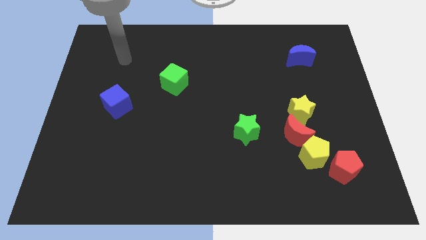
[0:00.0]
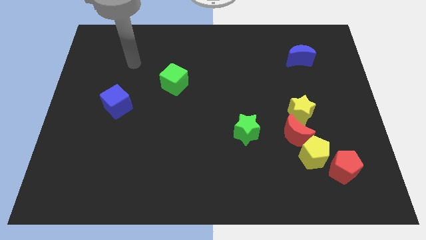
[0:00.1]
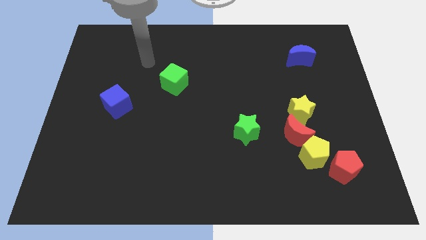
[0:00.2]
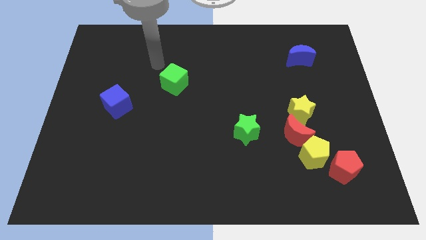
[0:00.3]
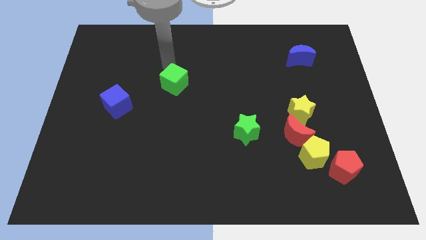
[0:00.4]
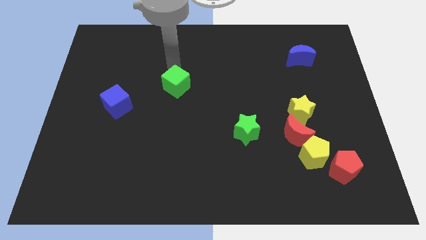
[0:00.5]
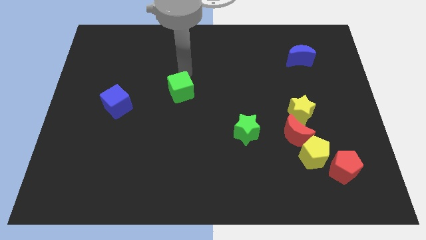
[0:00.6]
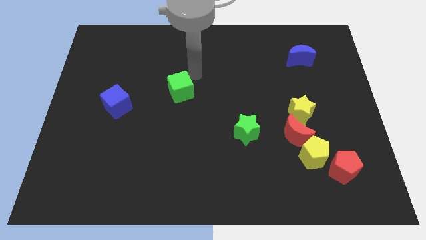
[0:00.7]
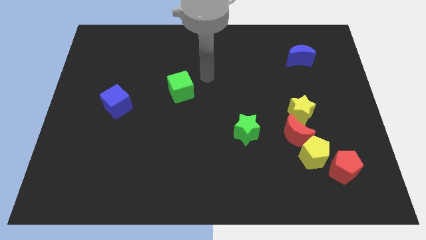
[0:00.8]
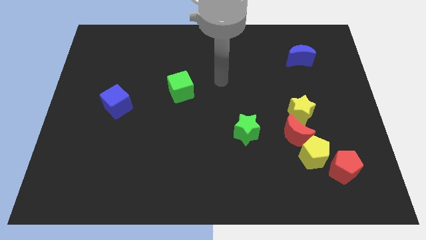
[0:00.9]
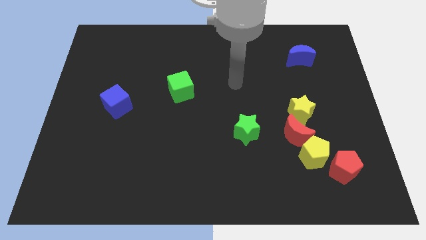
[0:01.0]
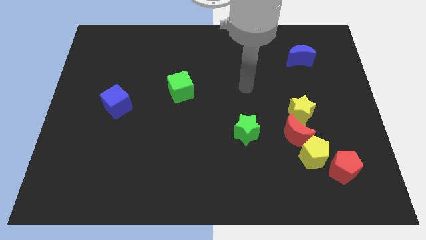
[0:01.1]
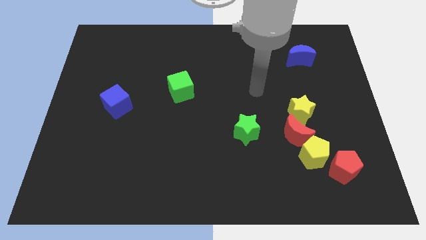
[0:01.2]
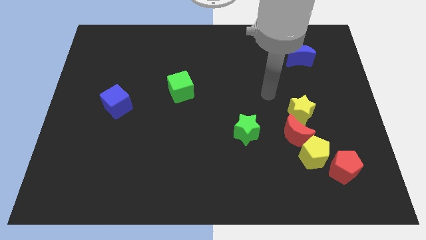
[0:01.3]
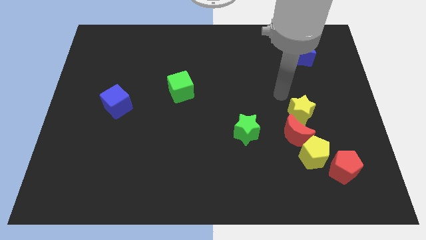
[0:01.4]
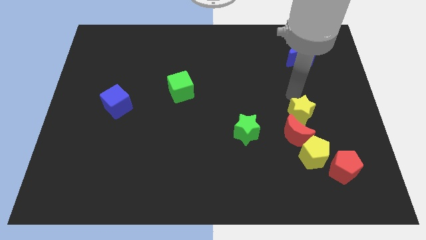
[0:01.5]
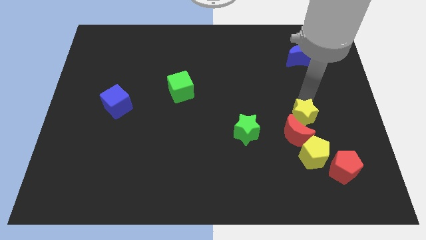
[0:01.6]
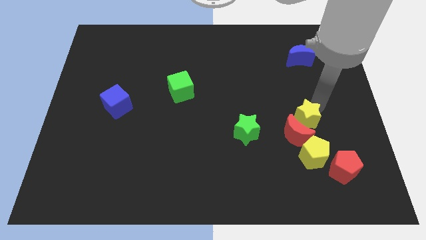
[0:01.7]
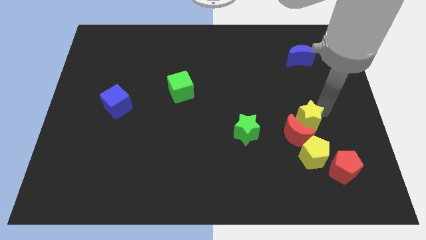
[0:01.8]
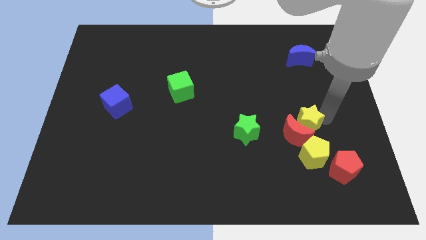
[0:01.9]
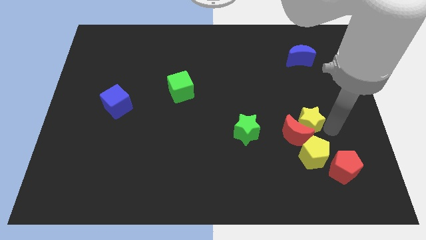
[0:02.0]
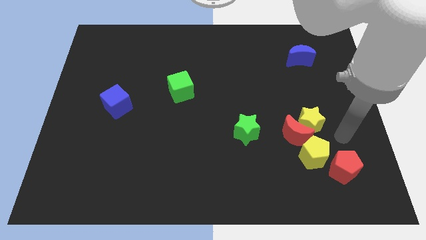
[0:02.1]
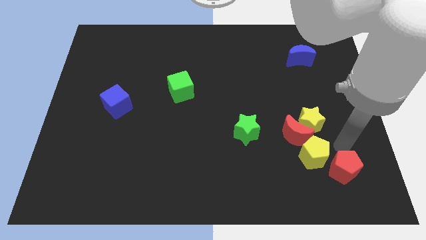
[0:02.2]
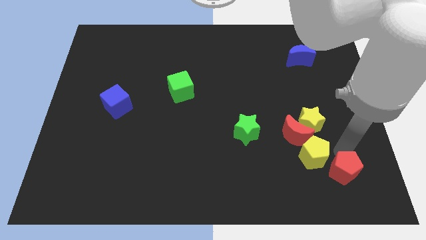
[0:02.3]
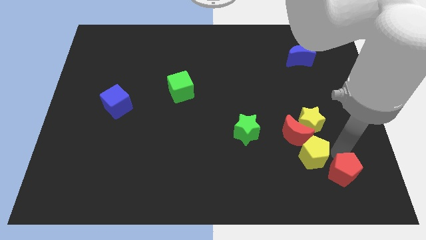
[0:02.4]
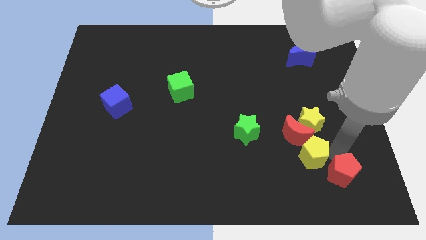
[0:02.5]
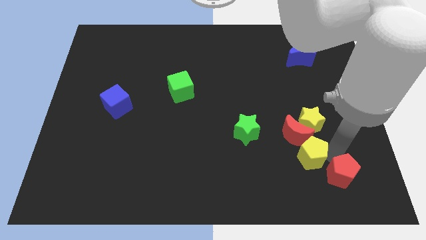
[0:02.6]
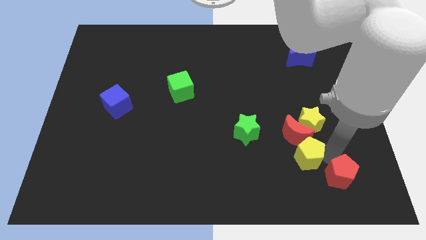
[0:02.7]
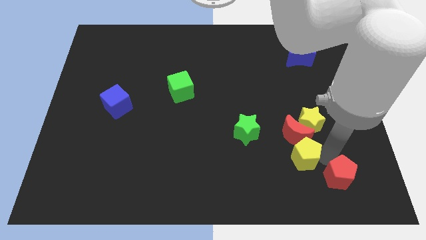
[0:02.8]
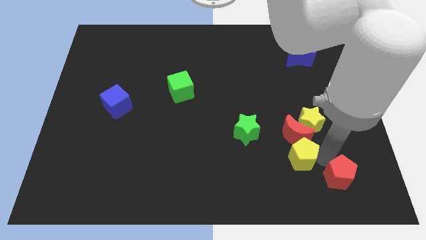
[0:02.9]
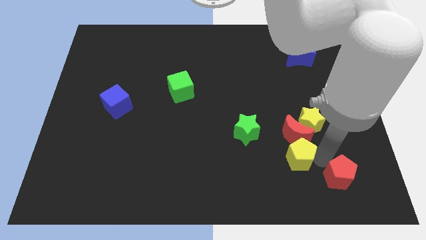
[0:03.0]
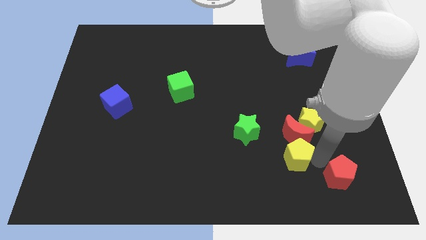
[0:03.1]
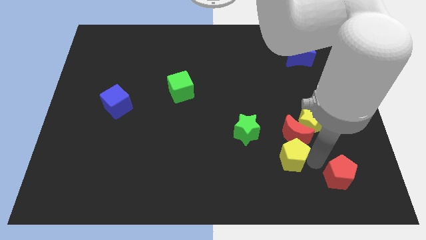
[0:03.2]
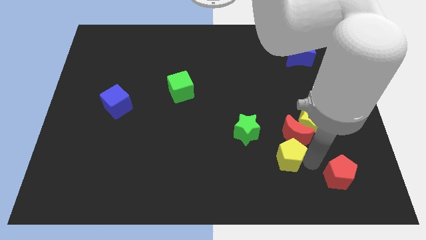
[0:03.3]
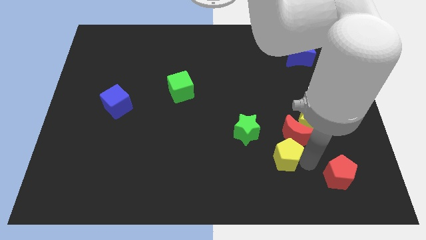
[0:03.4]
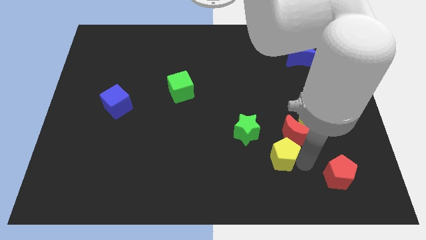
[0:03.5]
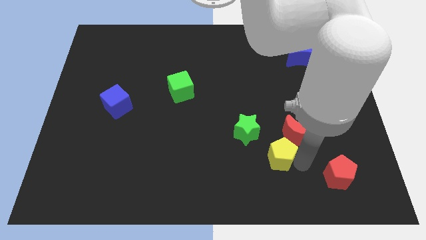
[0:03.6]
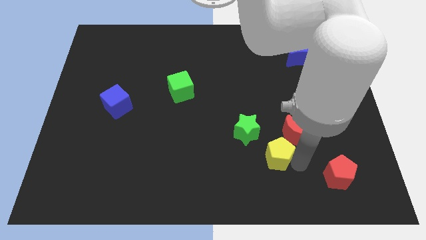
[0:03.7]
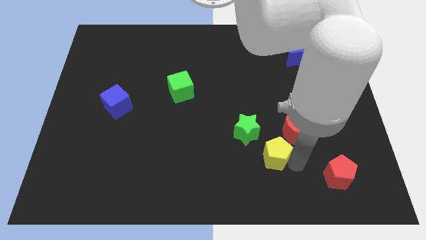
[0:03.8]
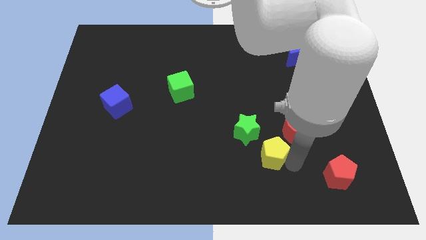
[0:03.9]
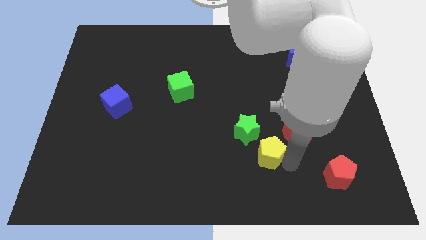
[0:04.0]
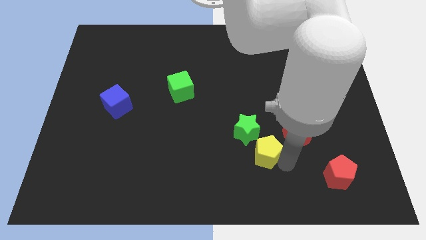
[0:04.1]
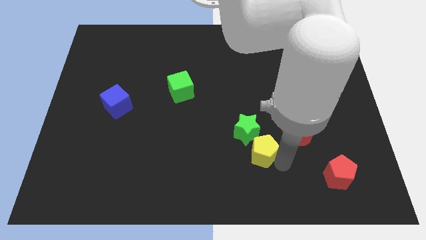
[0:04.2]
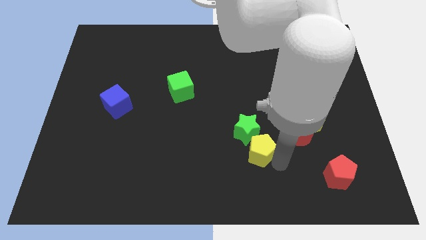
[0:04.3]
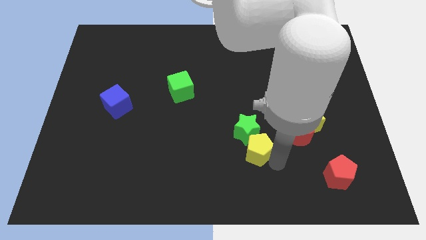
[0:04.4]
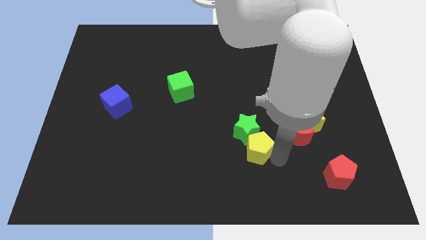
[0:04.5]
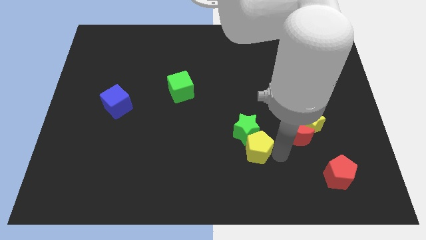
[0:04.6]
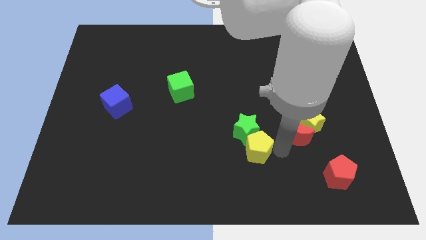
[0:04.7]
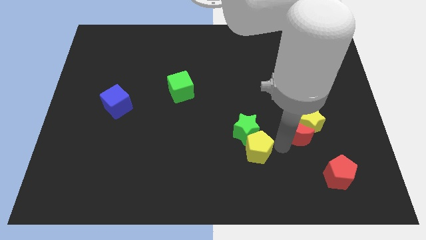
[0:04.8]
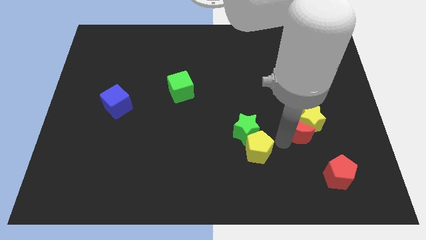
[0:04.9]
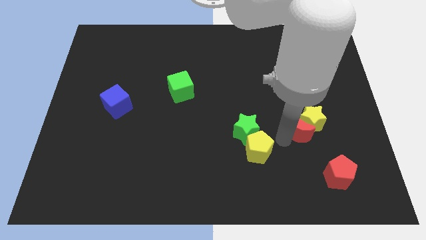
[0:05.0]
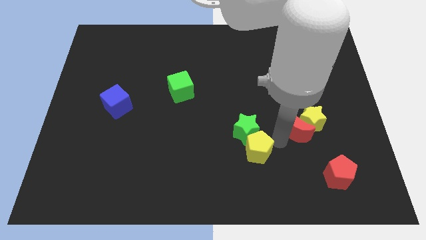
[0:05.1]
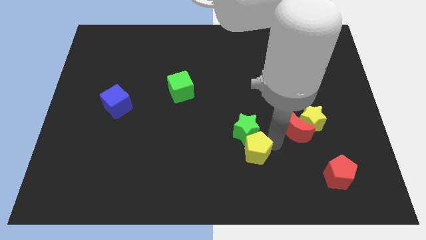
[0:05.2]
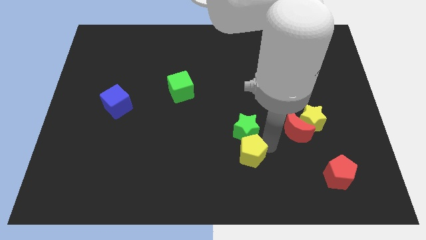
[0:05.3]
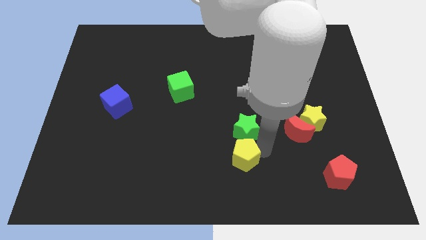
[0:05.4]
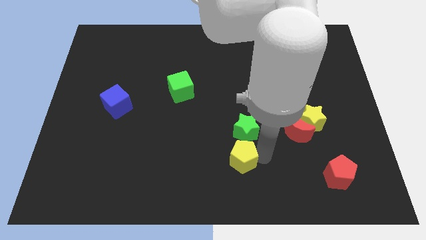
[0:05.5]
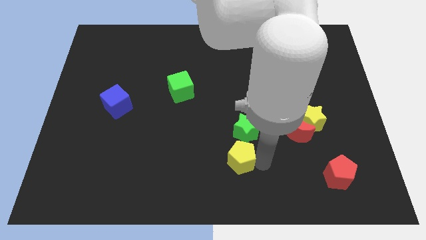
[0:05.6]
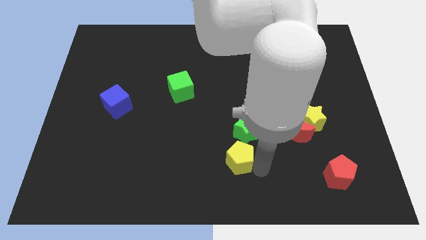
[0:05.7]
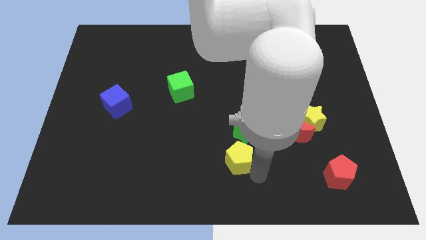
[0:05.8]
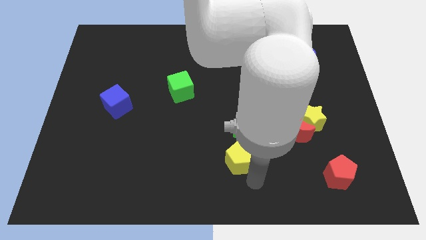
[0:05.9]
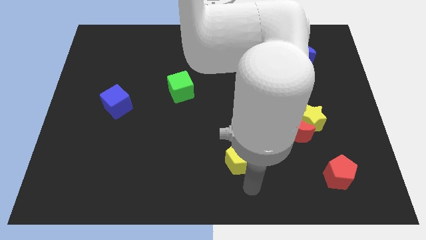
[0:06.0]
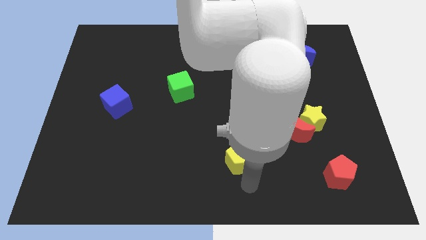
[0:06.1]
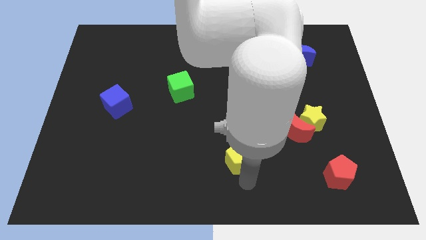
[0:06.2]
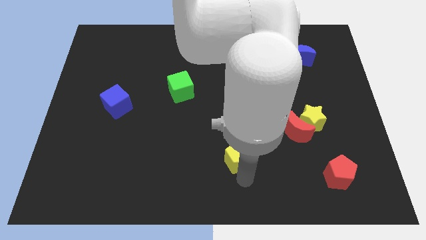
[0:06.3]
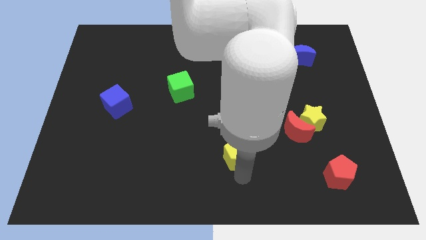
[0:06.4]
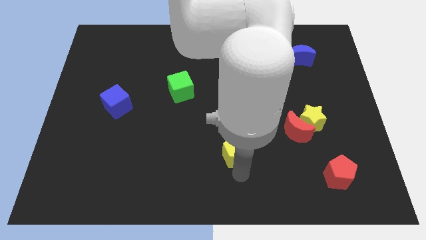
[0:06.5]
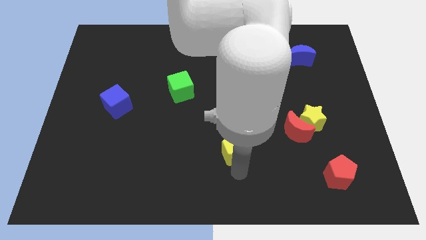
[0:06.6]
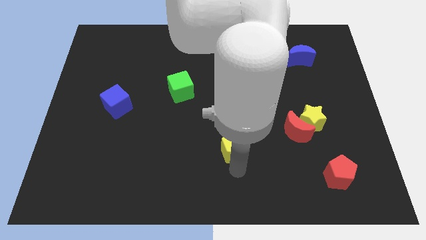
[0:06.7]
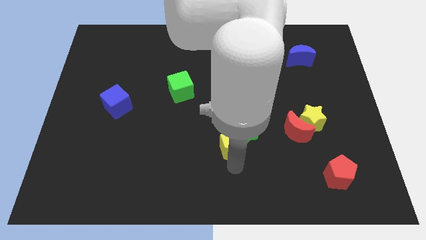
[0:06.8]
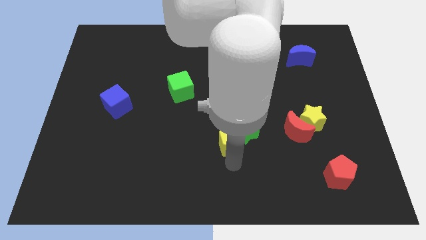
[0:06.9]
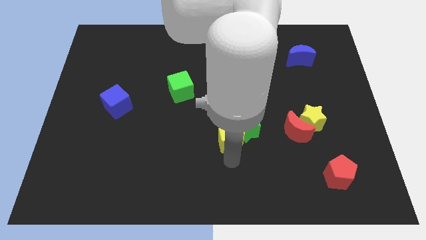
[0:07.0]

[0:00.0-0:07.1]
put the yellow pentagon to the center of the board
